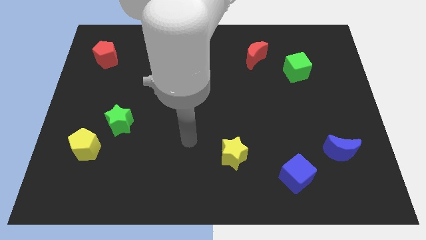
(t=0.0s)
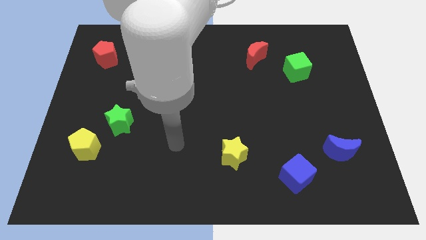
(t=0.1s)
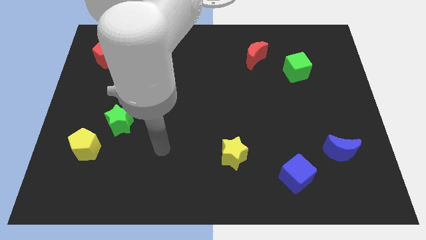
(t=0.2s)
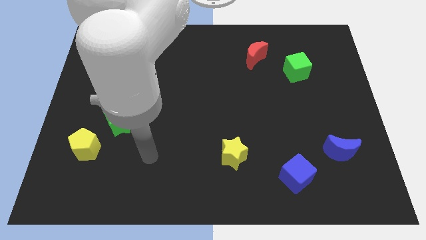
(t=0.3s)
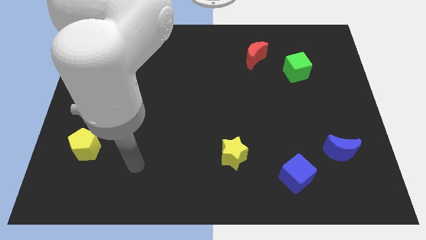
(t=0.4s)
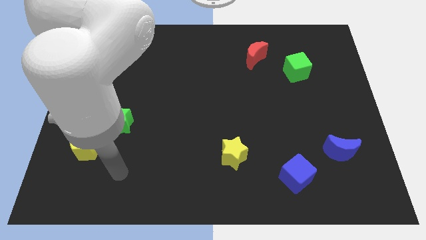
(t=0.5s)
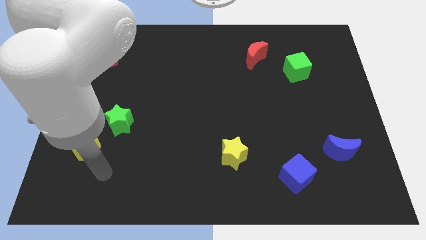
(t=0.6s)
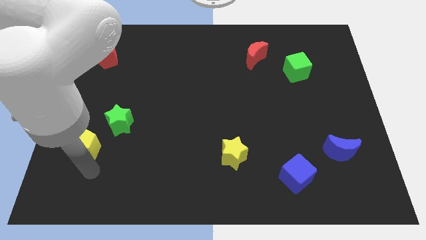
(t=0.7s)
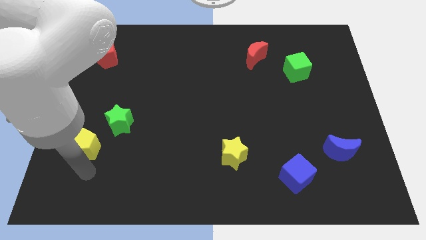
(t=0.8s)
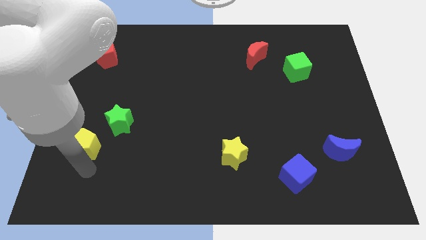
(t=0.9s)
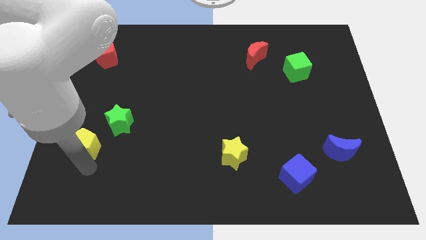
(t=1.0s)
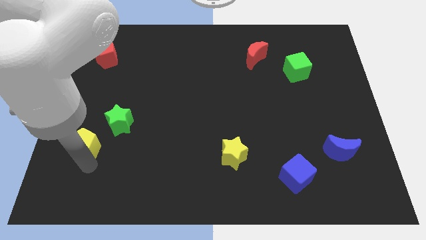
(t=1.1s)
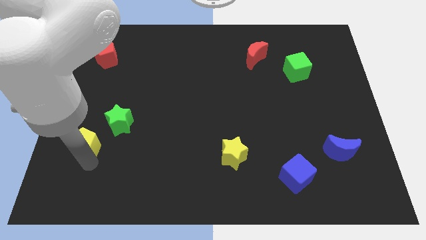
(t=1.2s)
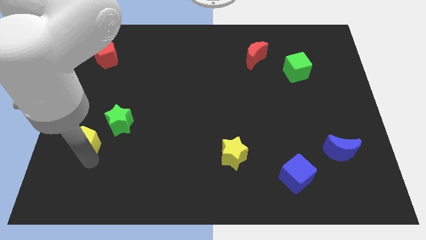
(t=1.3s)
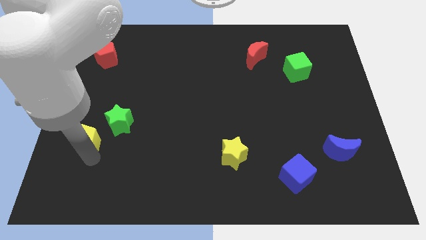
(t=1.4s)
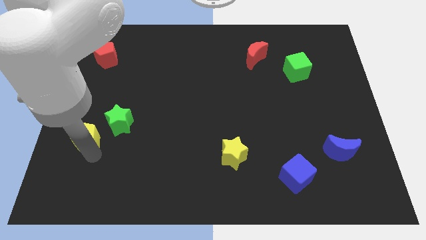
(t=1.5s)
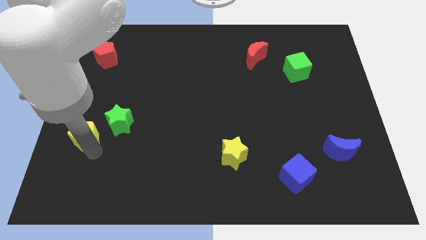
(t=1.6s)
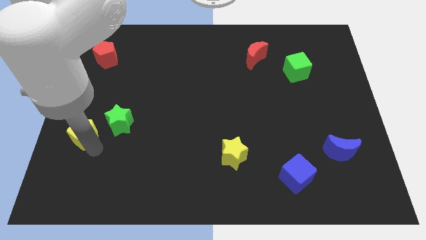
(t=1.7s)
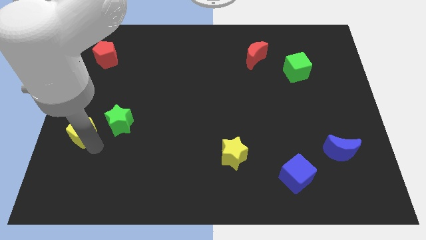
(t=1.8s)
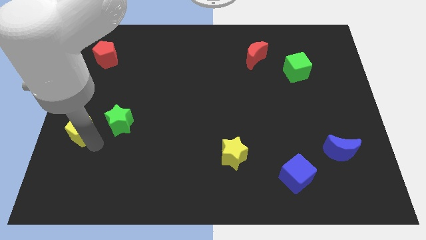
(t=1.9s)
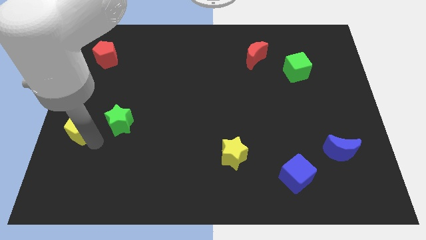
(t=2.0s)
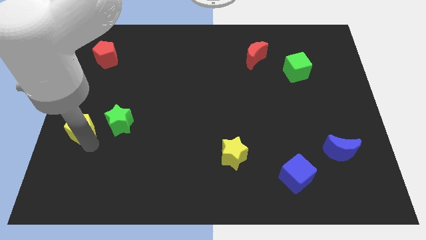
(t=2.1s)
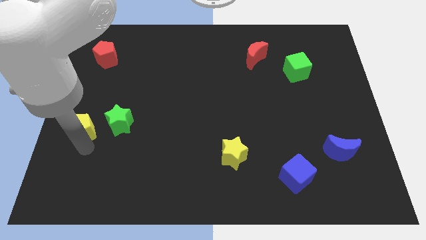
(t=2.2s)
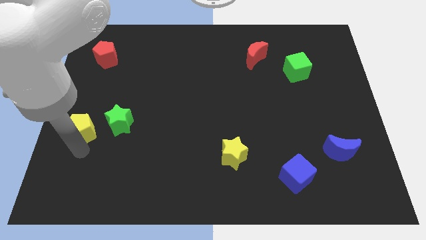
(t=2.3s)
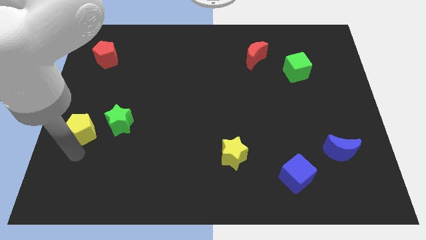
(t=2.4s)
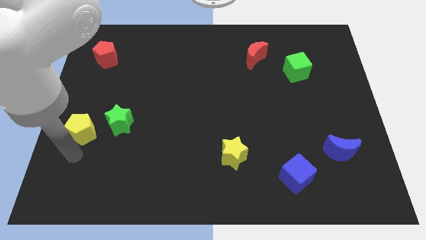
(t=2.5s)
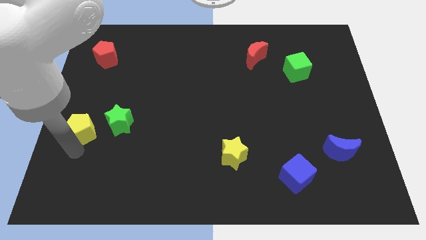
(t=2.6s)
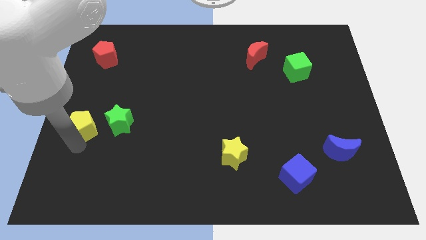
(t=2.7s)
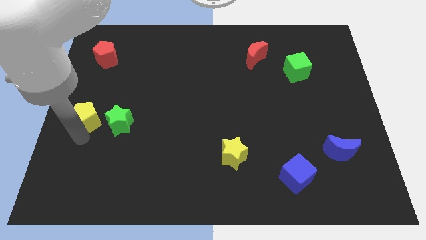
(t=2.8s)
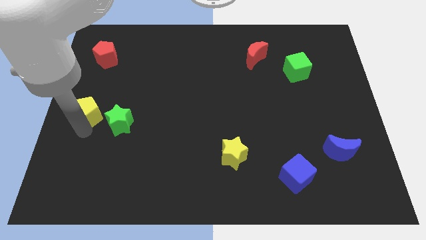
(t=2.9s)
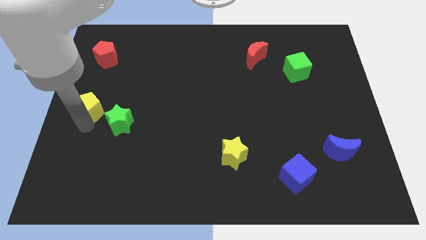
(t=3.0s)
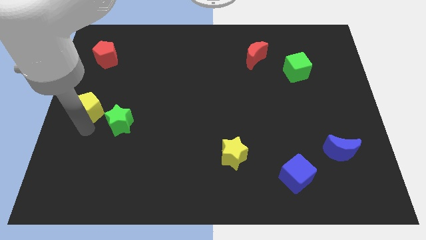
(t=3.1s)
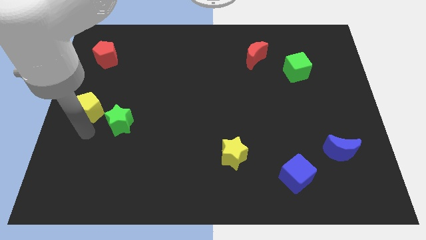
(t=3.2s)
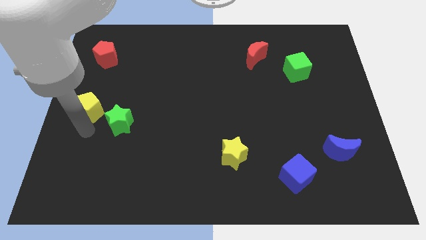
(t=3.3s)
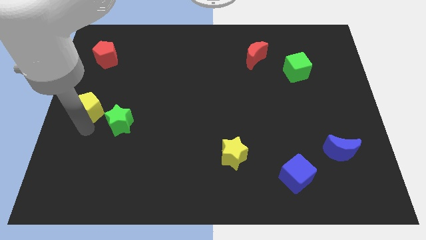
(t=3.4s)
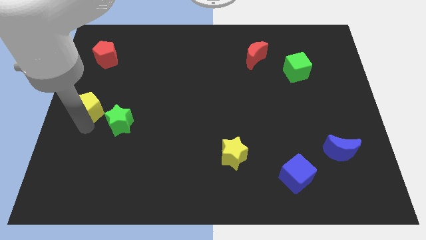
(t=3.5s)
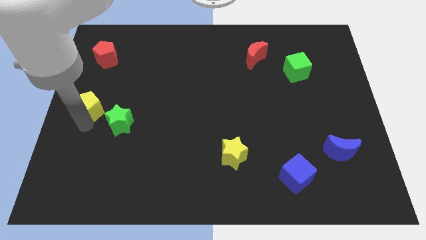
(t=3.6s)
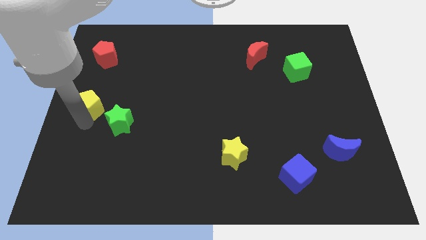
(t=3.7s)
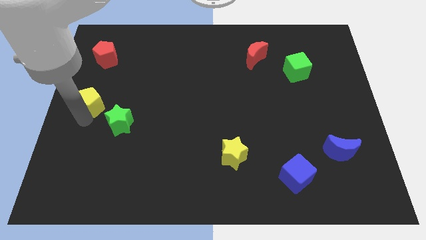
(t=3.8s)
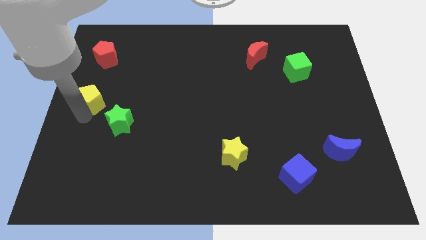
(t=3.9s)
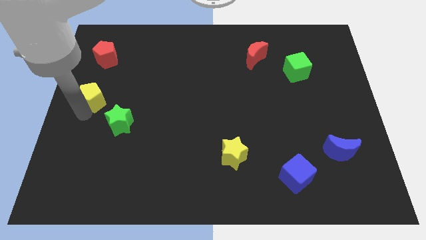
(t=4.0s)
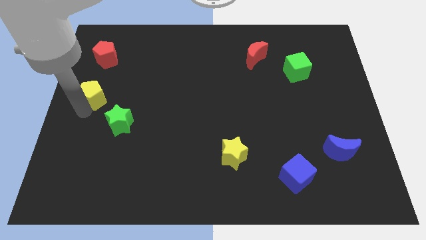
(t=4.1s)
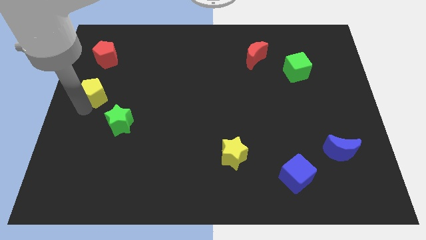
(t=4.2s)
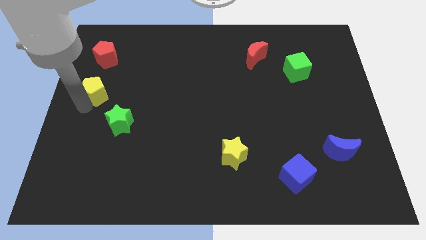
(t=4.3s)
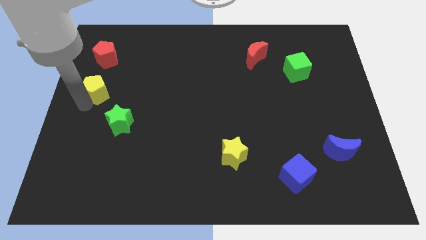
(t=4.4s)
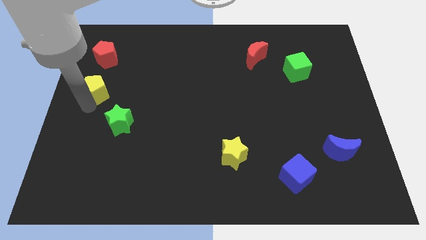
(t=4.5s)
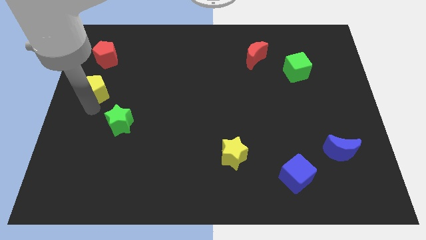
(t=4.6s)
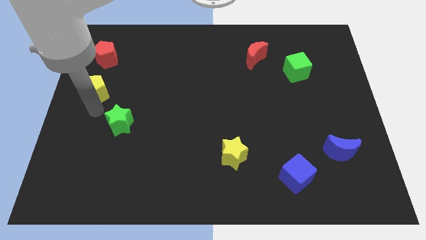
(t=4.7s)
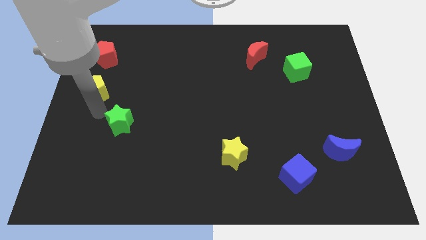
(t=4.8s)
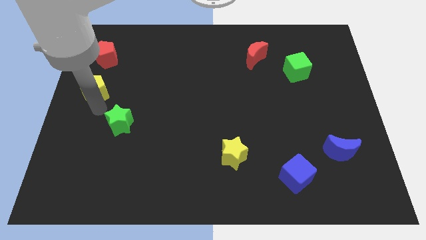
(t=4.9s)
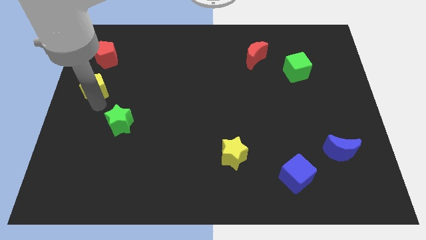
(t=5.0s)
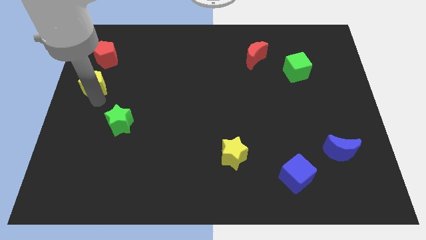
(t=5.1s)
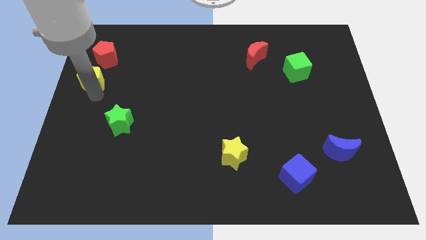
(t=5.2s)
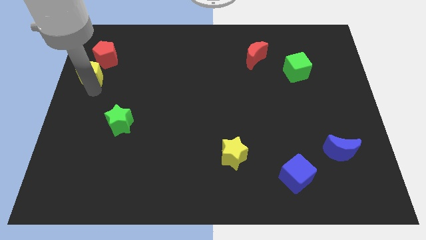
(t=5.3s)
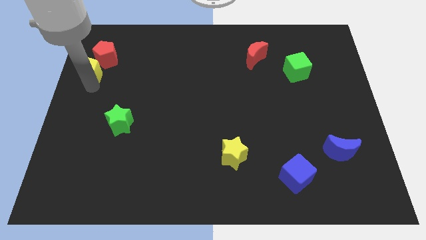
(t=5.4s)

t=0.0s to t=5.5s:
push the yellow pentagon to the red pentagon

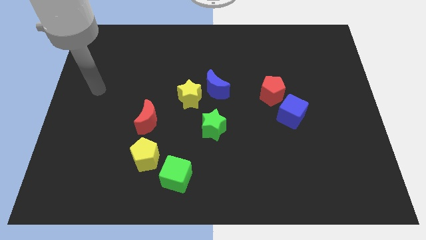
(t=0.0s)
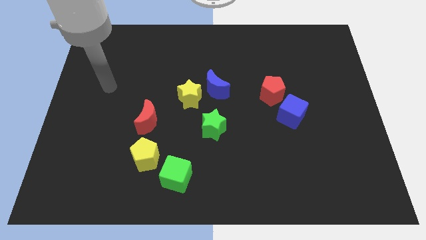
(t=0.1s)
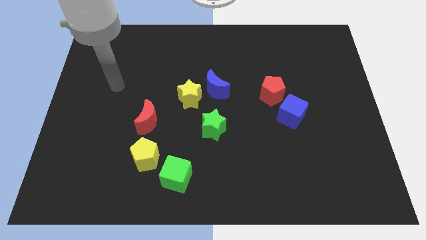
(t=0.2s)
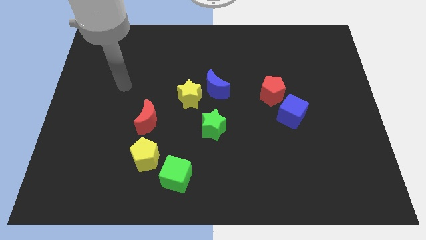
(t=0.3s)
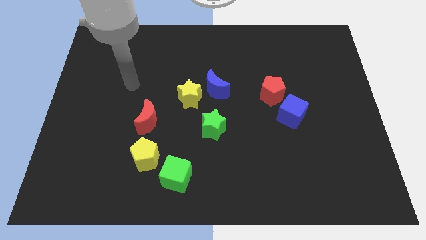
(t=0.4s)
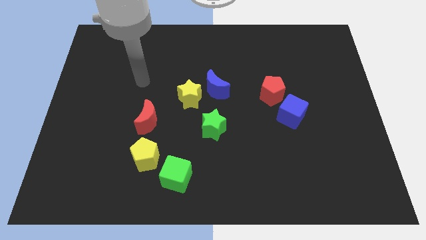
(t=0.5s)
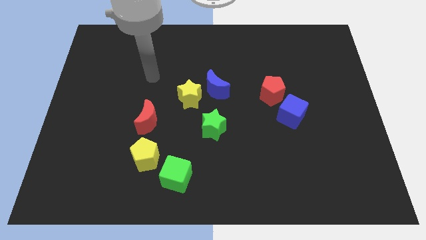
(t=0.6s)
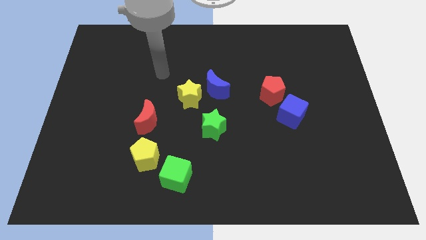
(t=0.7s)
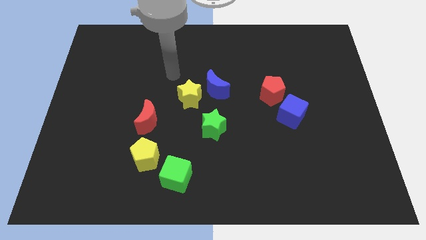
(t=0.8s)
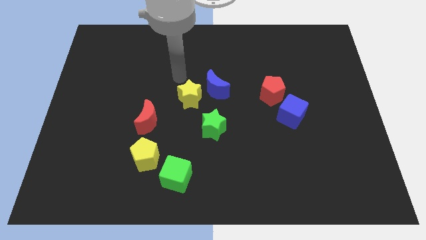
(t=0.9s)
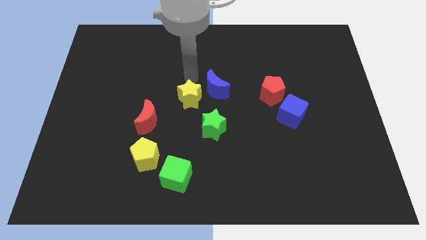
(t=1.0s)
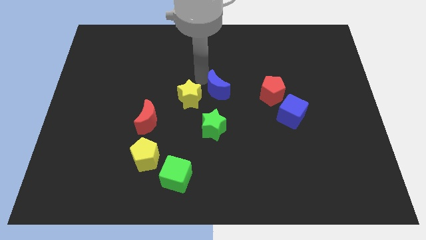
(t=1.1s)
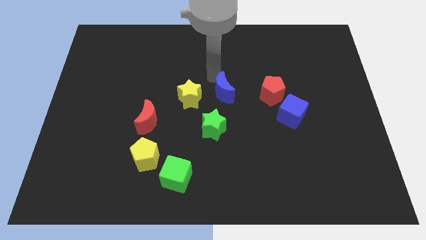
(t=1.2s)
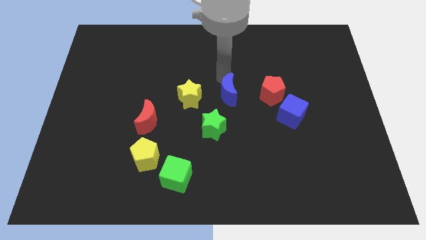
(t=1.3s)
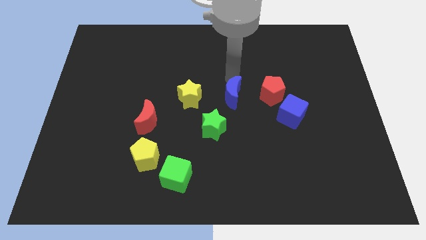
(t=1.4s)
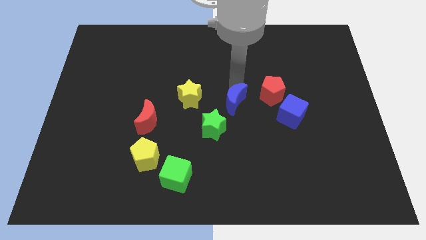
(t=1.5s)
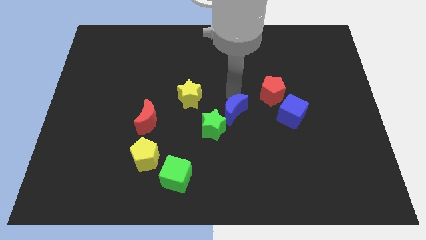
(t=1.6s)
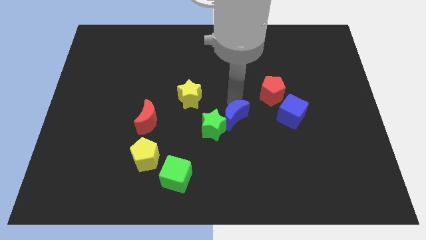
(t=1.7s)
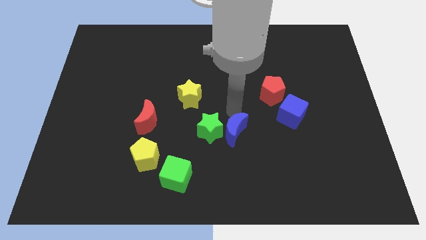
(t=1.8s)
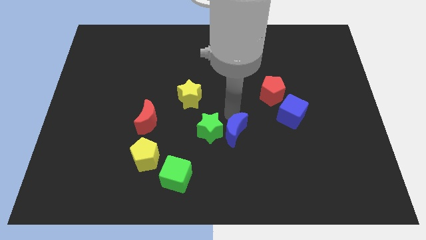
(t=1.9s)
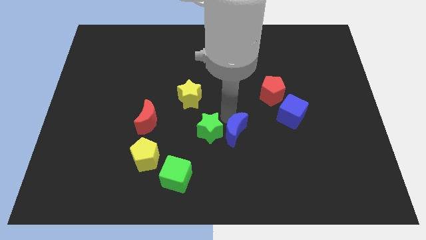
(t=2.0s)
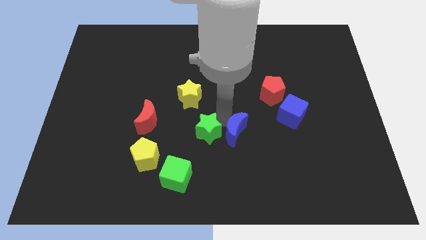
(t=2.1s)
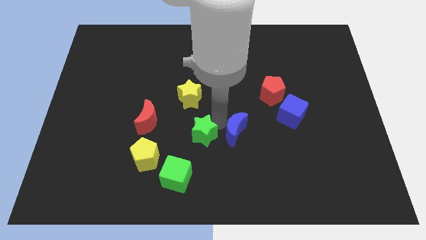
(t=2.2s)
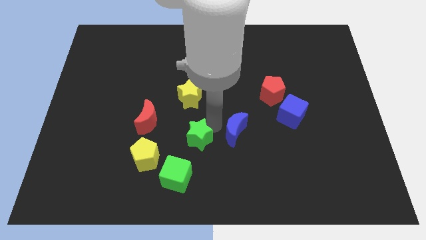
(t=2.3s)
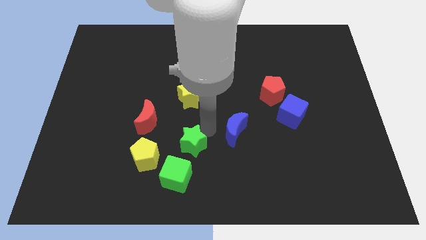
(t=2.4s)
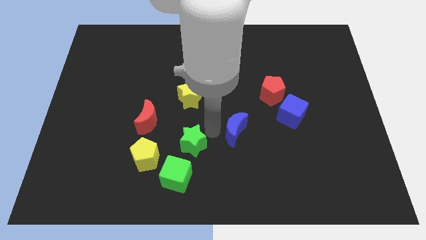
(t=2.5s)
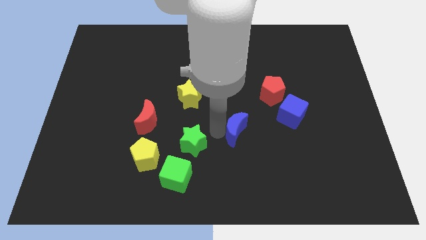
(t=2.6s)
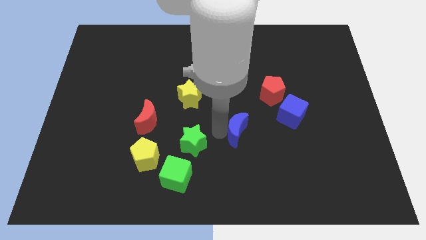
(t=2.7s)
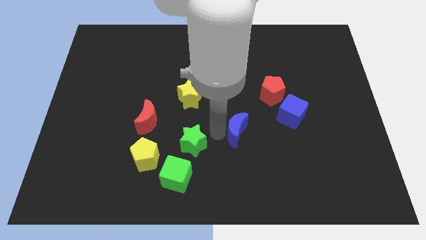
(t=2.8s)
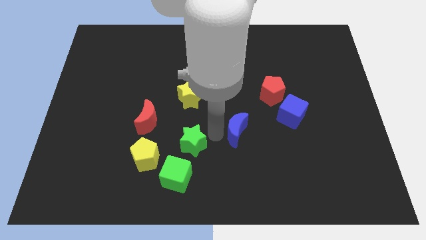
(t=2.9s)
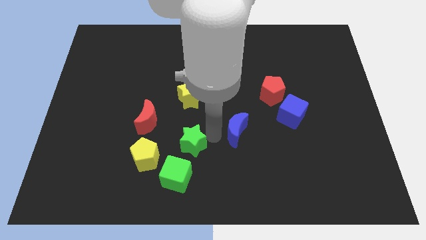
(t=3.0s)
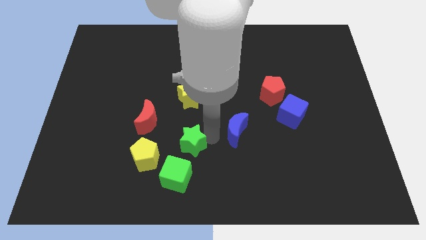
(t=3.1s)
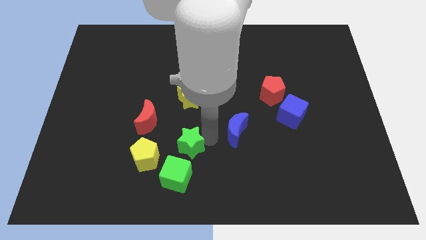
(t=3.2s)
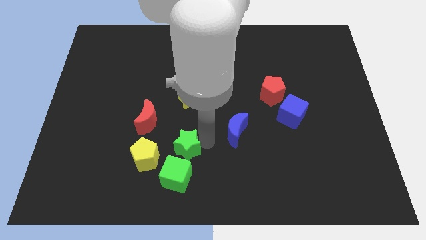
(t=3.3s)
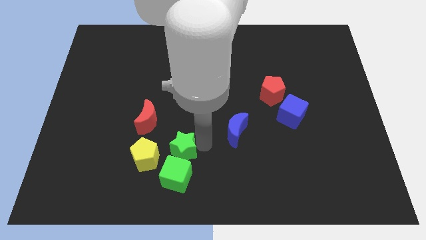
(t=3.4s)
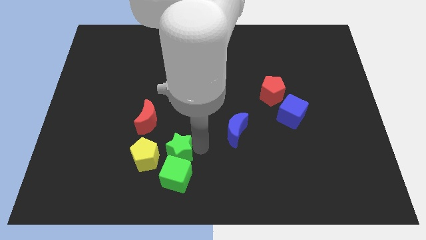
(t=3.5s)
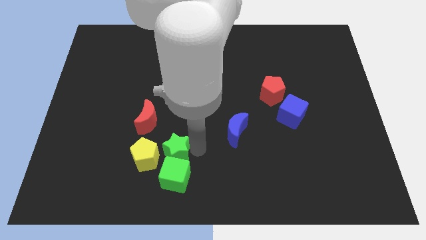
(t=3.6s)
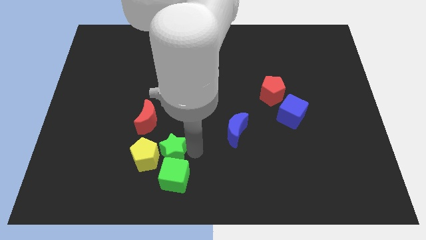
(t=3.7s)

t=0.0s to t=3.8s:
slide the green star close to the yellow pentagon
